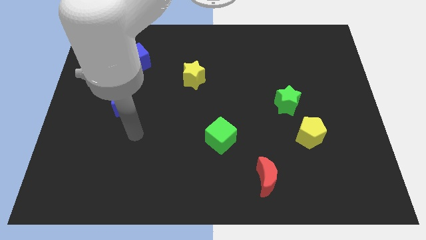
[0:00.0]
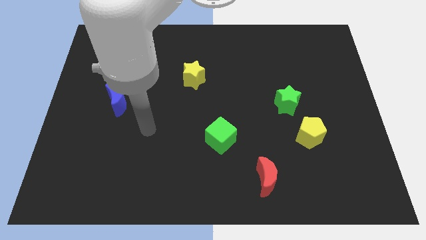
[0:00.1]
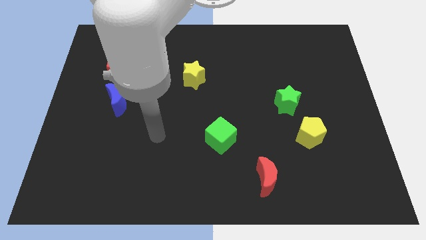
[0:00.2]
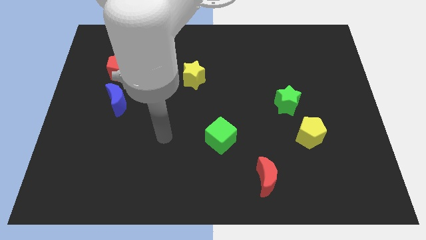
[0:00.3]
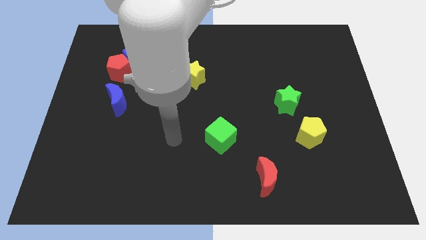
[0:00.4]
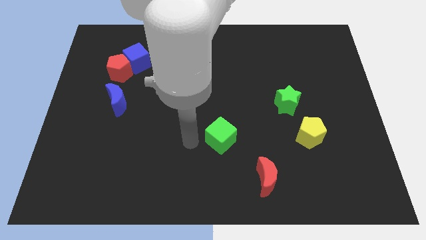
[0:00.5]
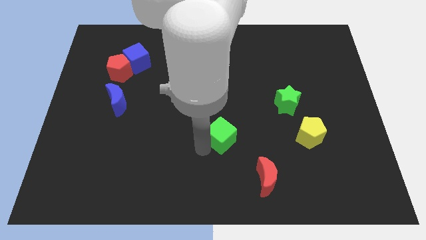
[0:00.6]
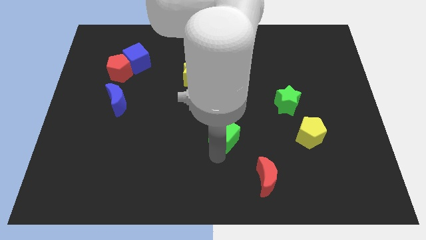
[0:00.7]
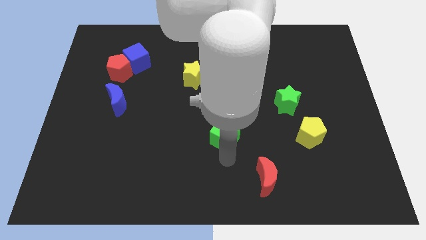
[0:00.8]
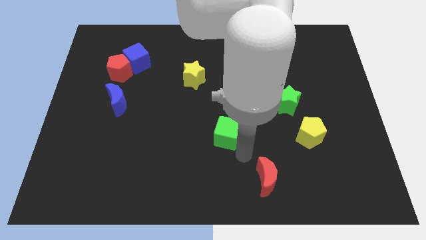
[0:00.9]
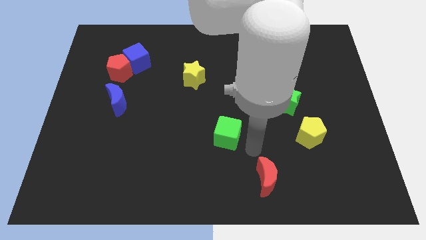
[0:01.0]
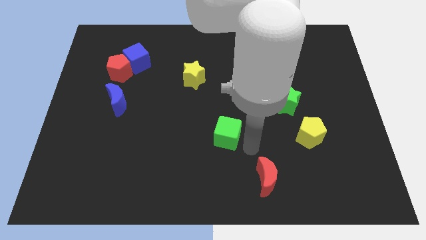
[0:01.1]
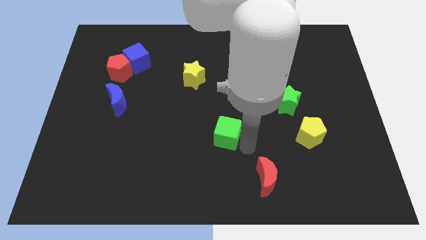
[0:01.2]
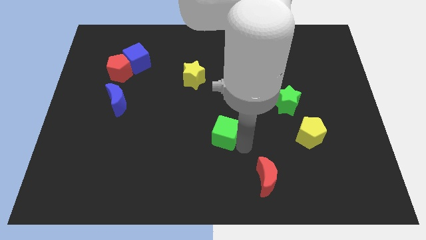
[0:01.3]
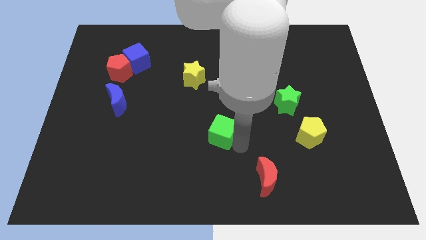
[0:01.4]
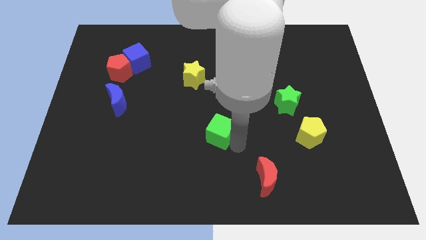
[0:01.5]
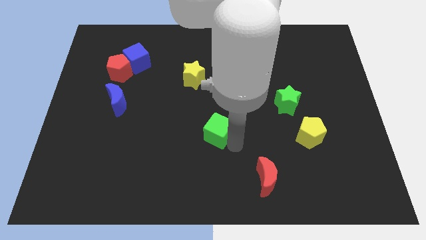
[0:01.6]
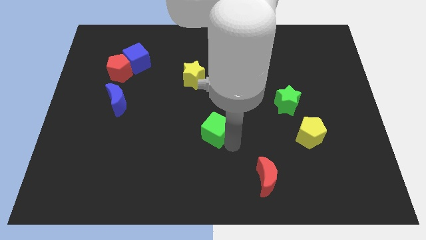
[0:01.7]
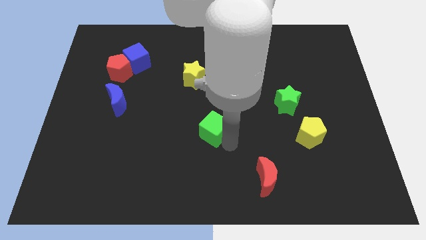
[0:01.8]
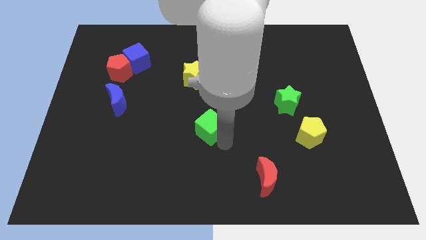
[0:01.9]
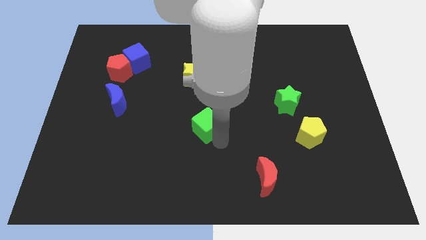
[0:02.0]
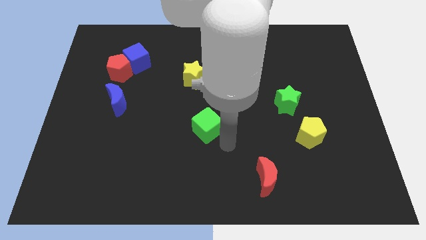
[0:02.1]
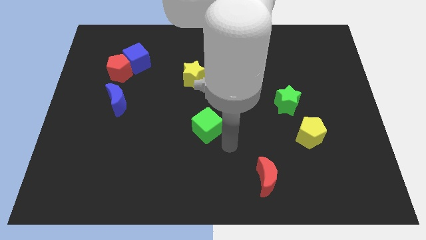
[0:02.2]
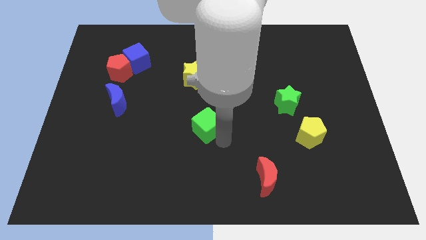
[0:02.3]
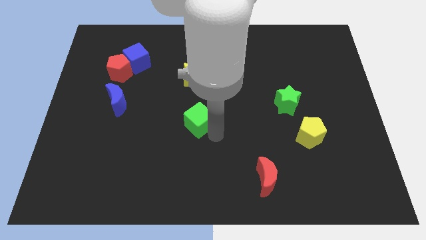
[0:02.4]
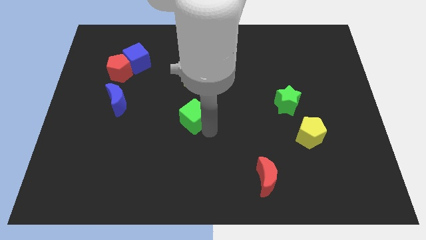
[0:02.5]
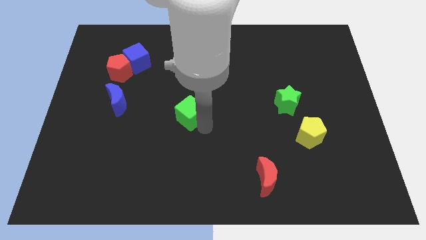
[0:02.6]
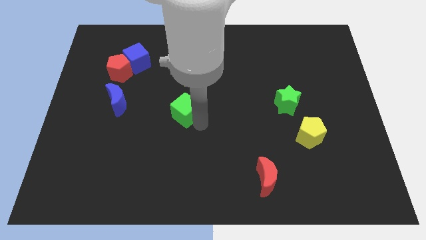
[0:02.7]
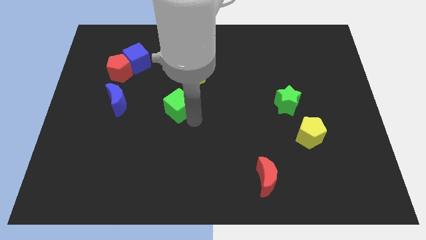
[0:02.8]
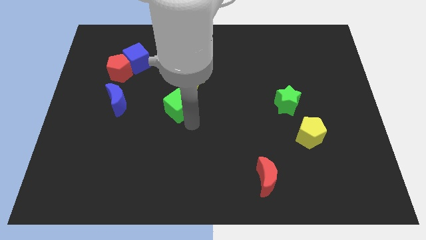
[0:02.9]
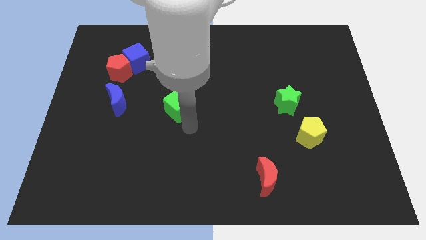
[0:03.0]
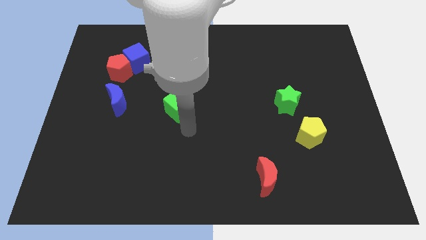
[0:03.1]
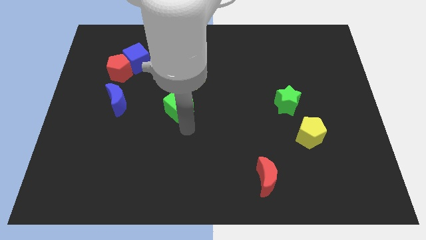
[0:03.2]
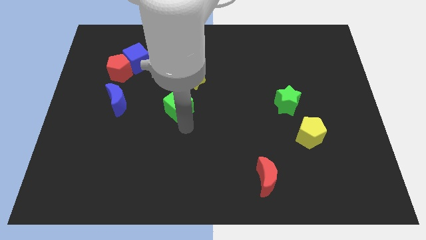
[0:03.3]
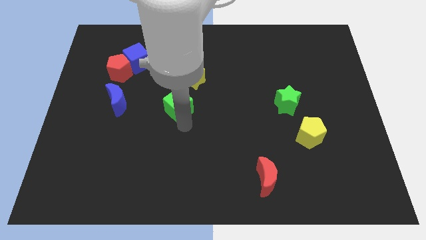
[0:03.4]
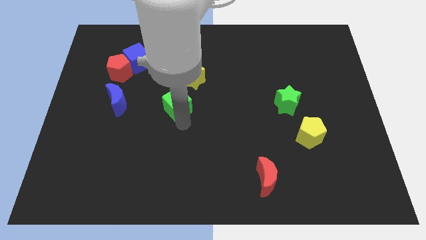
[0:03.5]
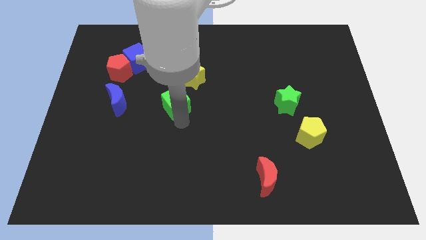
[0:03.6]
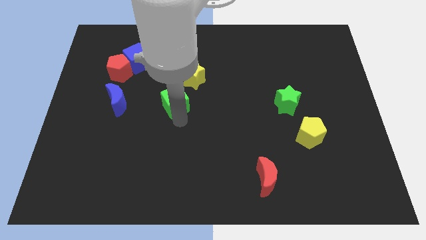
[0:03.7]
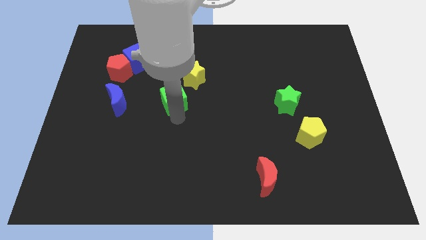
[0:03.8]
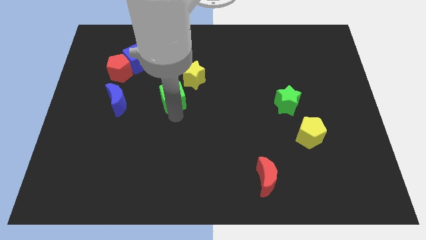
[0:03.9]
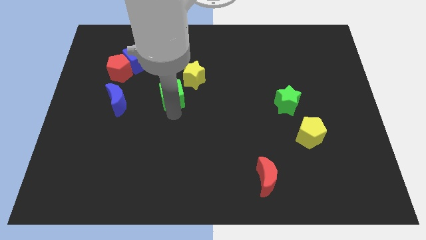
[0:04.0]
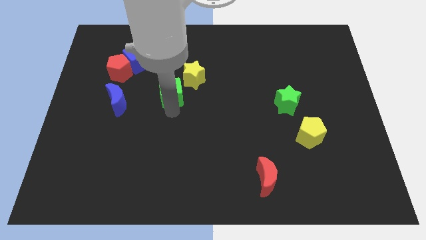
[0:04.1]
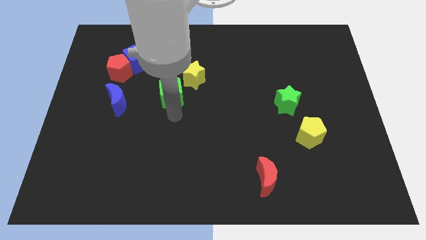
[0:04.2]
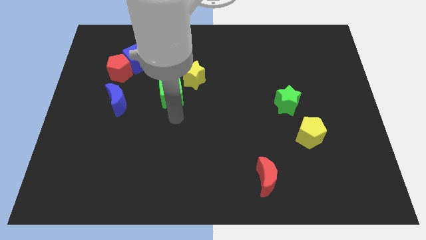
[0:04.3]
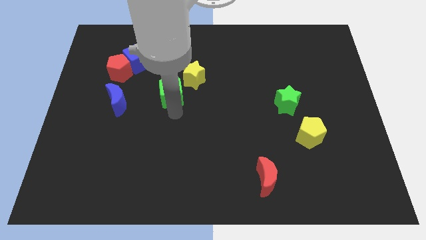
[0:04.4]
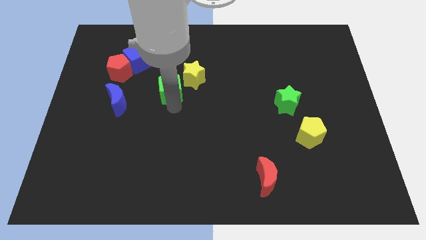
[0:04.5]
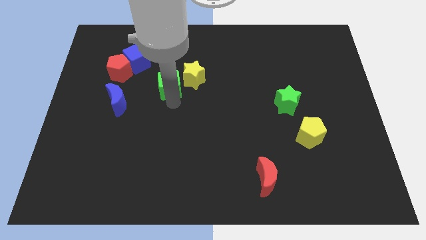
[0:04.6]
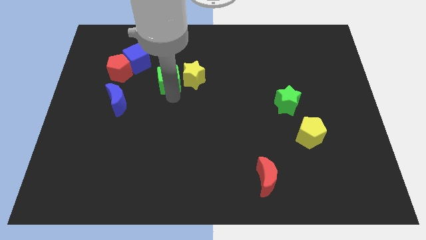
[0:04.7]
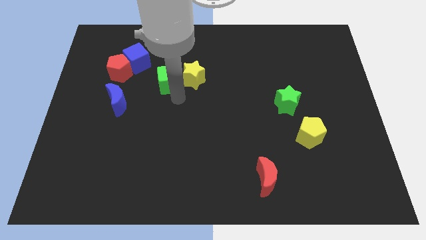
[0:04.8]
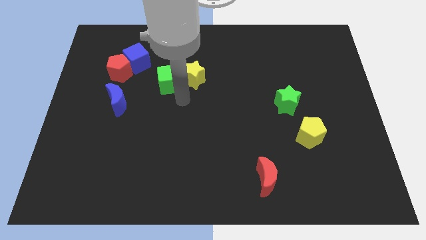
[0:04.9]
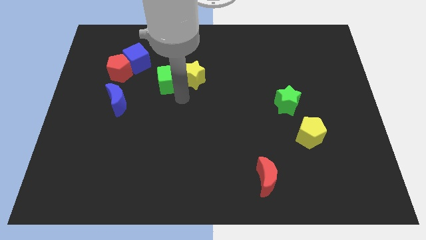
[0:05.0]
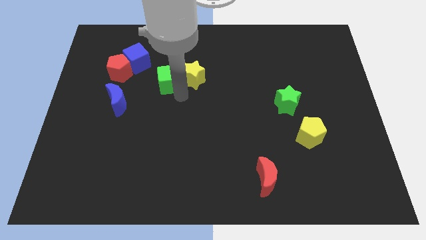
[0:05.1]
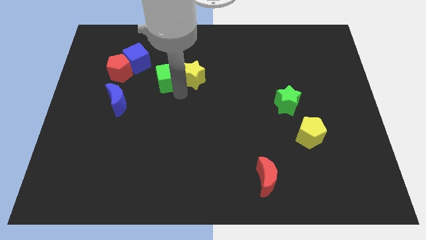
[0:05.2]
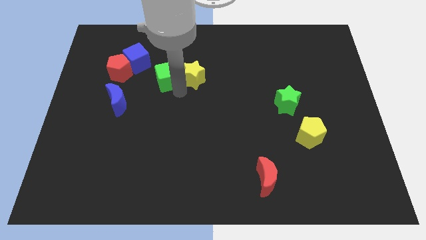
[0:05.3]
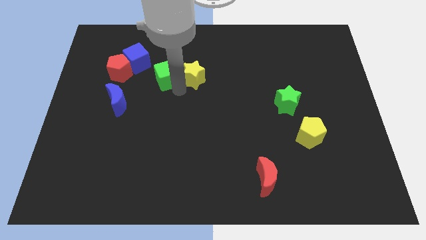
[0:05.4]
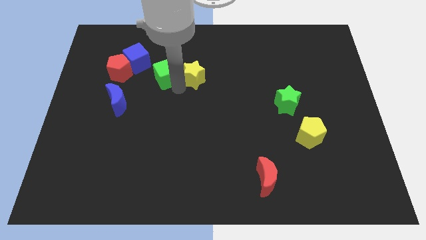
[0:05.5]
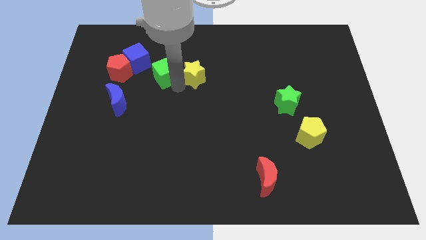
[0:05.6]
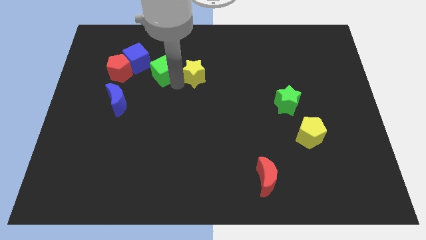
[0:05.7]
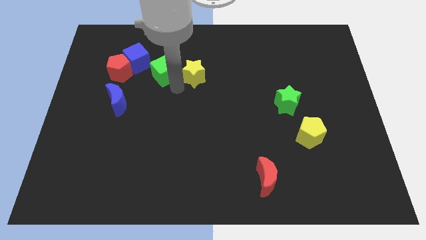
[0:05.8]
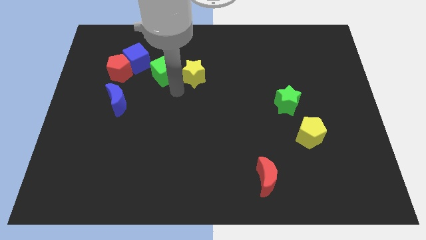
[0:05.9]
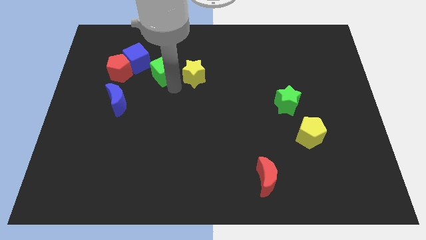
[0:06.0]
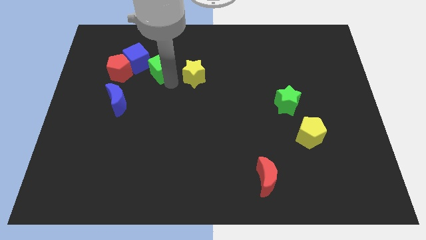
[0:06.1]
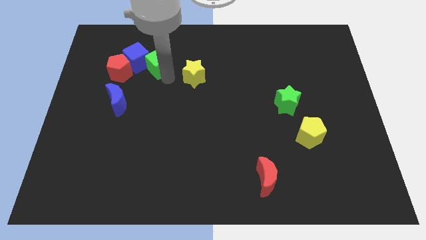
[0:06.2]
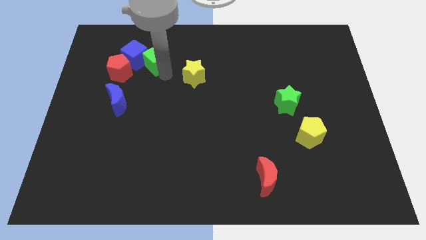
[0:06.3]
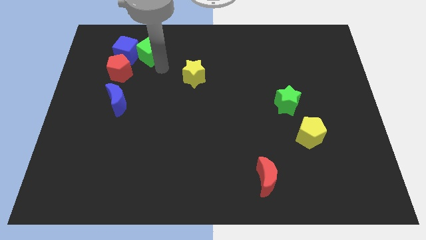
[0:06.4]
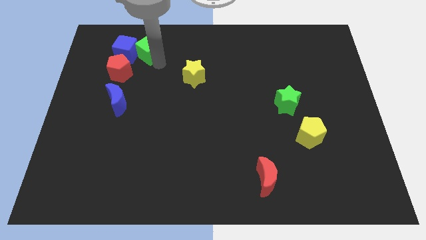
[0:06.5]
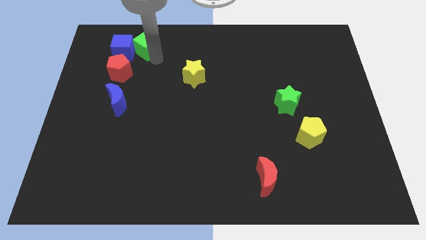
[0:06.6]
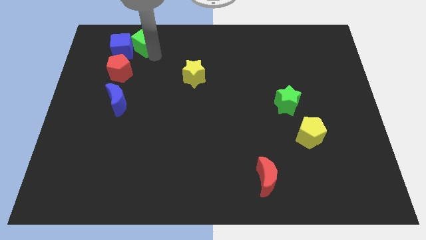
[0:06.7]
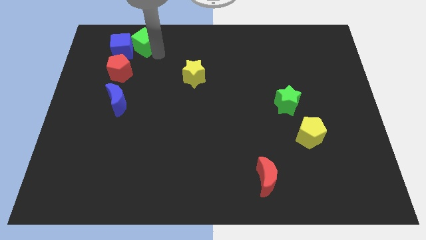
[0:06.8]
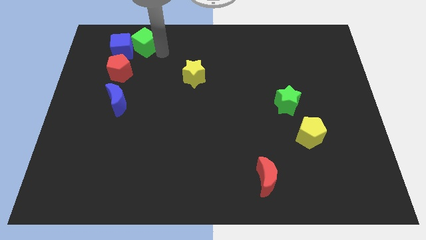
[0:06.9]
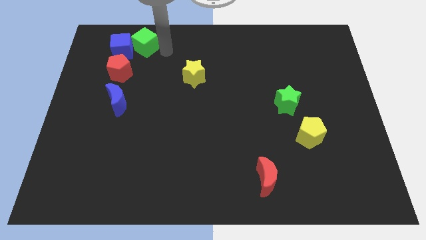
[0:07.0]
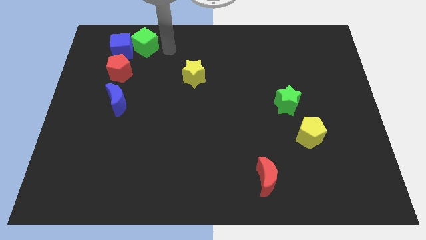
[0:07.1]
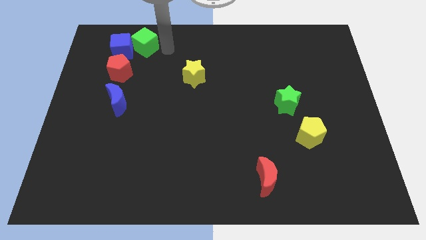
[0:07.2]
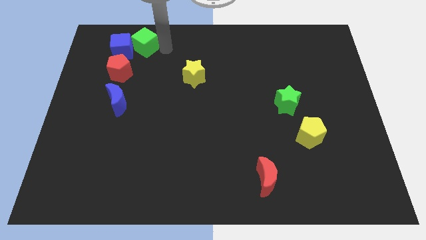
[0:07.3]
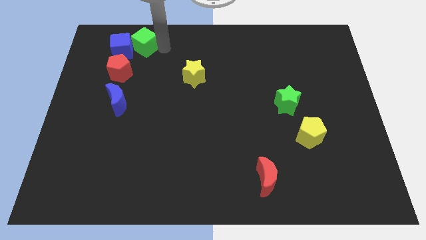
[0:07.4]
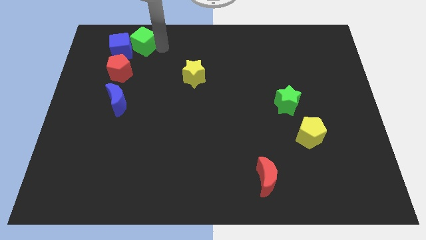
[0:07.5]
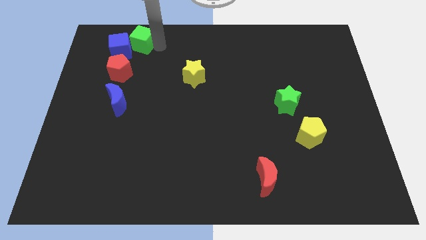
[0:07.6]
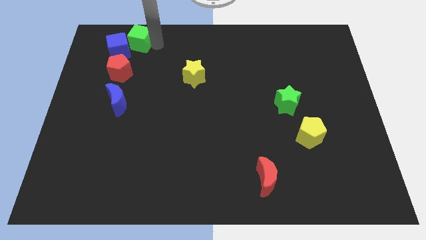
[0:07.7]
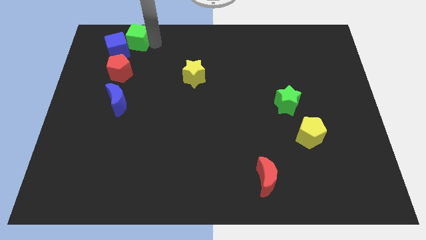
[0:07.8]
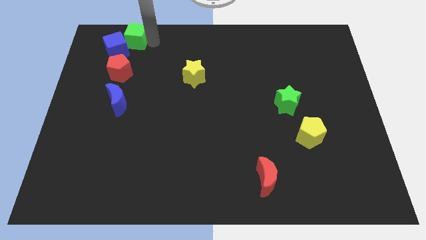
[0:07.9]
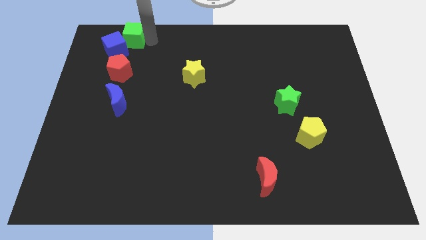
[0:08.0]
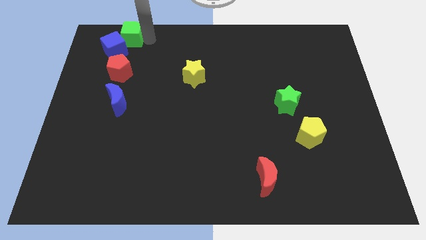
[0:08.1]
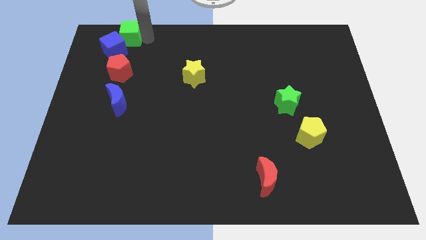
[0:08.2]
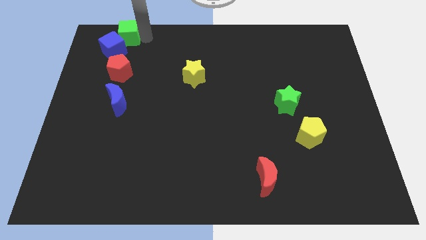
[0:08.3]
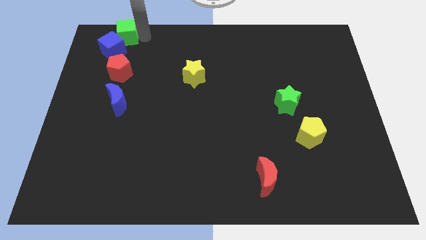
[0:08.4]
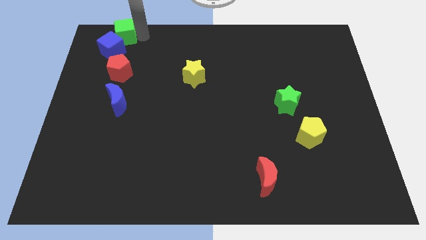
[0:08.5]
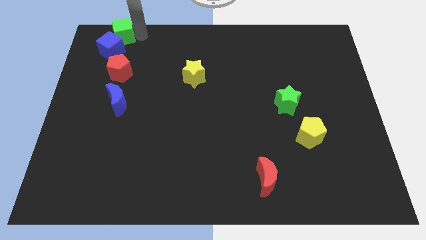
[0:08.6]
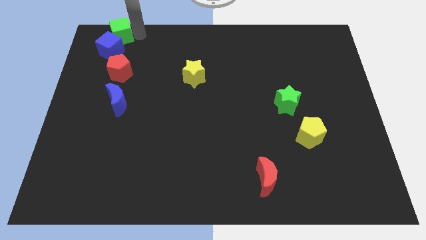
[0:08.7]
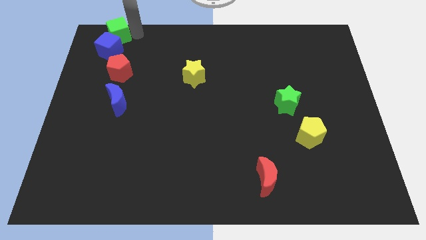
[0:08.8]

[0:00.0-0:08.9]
slide the green cube to the upper left corner
